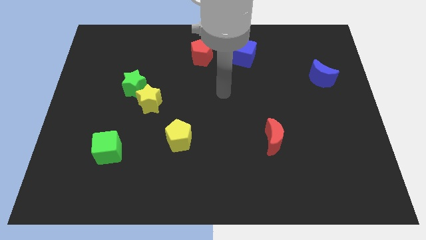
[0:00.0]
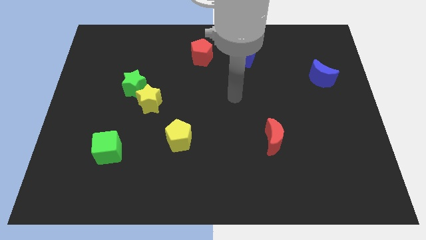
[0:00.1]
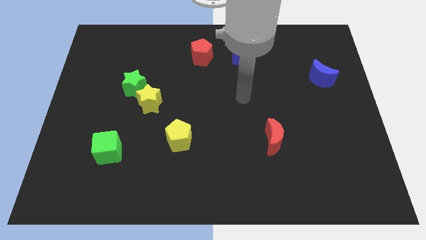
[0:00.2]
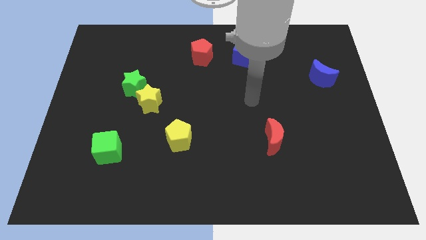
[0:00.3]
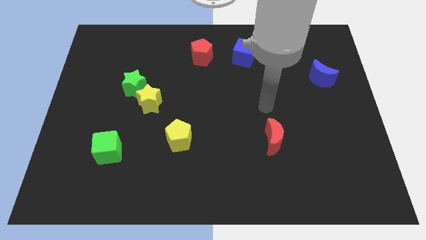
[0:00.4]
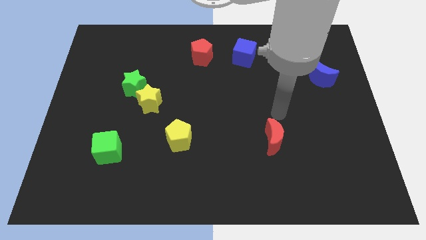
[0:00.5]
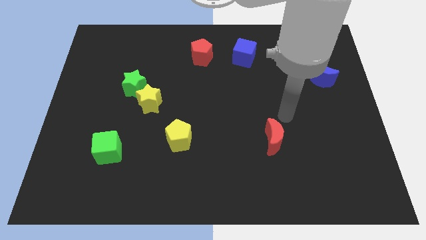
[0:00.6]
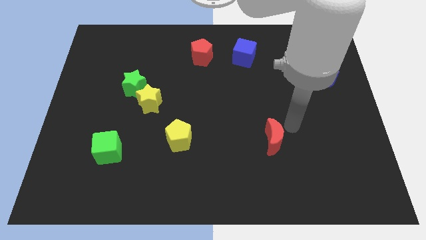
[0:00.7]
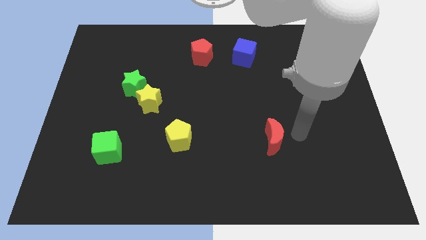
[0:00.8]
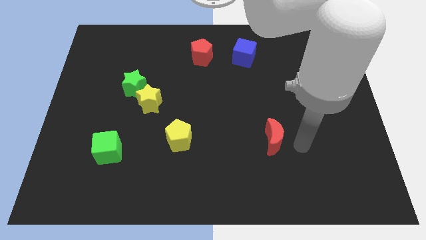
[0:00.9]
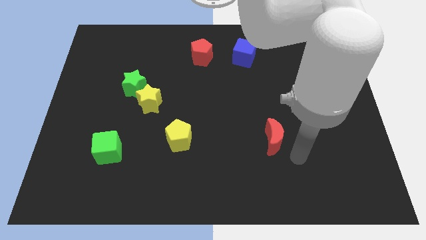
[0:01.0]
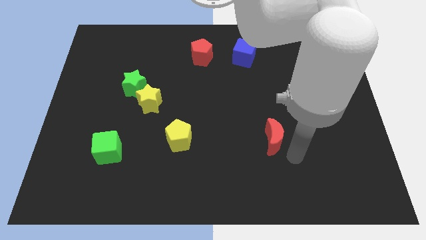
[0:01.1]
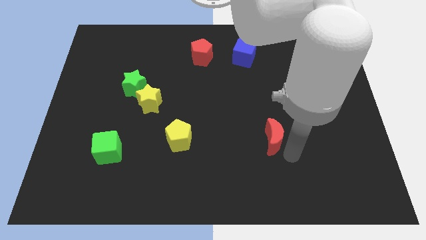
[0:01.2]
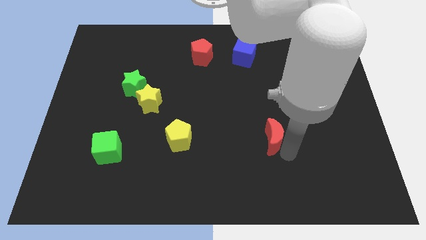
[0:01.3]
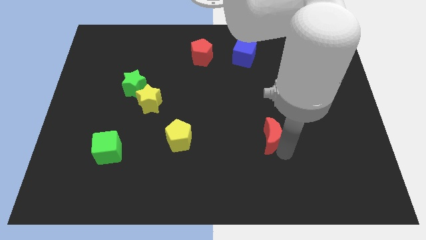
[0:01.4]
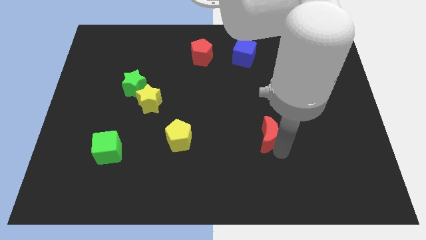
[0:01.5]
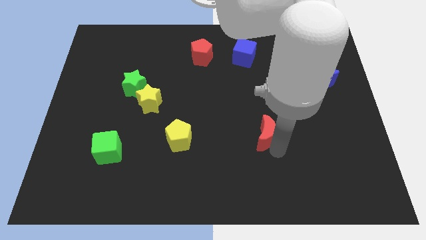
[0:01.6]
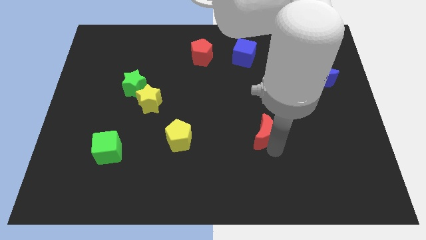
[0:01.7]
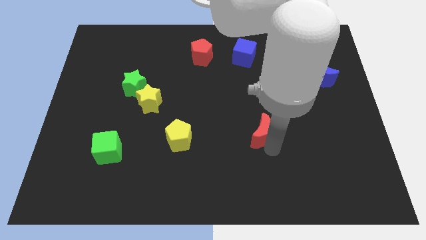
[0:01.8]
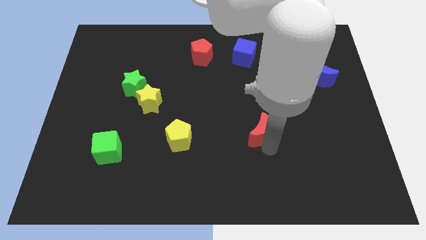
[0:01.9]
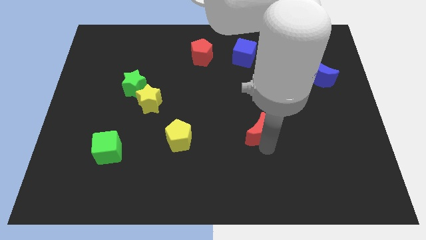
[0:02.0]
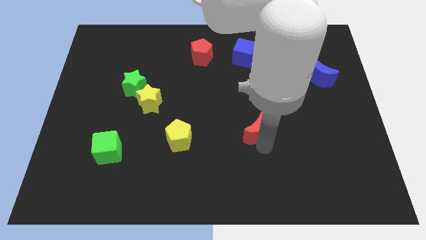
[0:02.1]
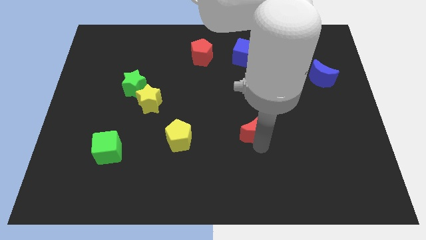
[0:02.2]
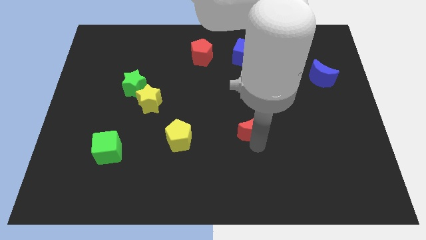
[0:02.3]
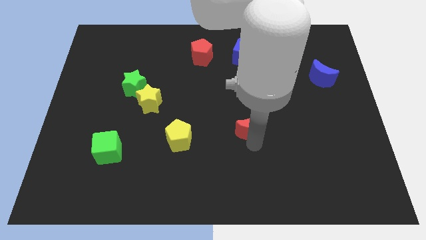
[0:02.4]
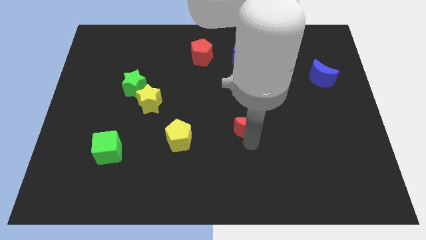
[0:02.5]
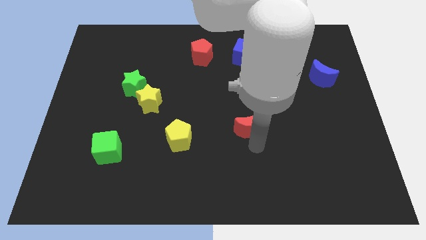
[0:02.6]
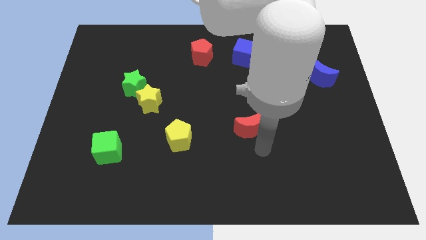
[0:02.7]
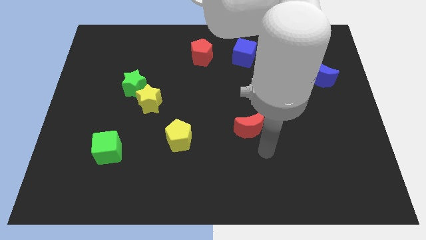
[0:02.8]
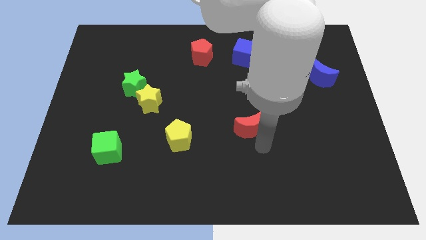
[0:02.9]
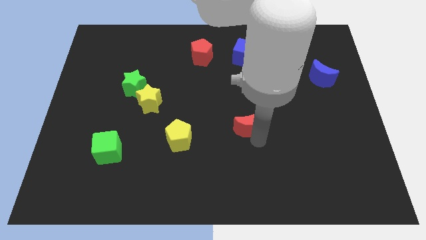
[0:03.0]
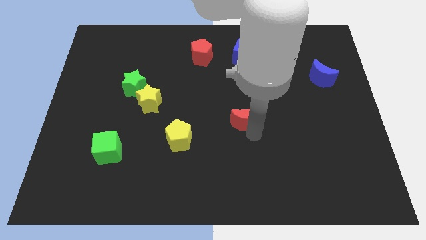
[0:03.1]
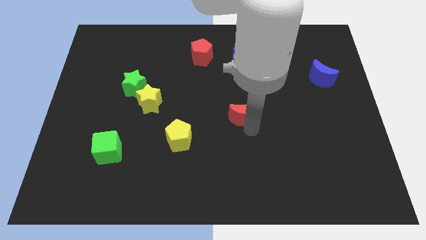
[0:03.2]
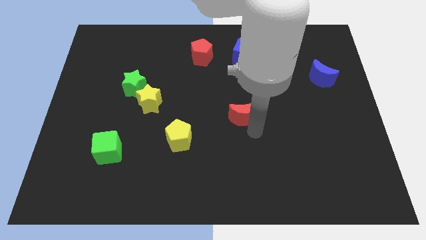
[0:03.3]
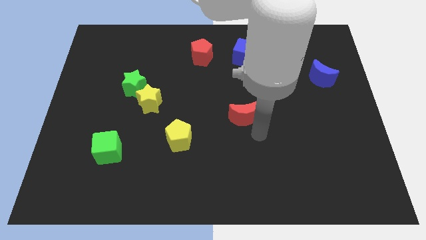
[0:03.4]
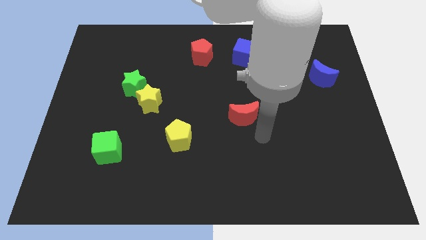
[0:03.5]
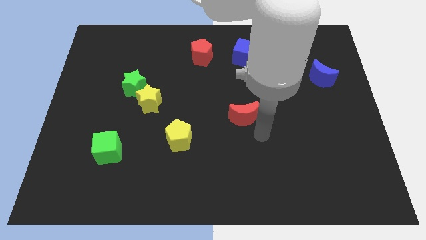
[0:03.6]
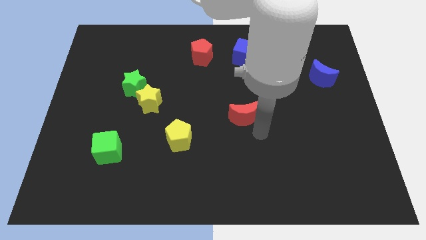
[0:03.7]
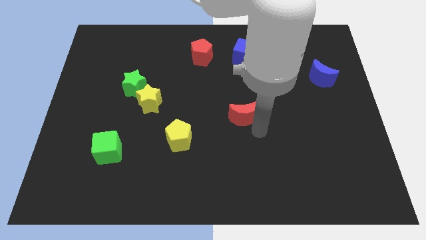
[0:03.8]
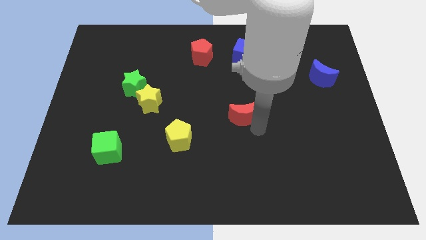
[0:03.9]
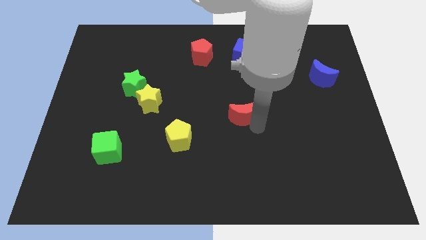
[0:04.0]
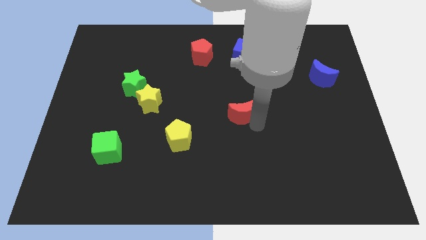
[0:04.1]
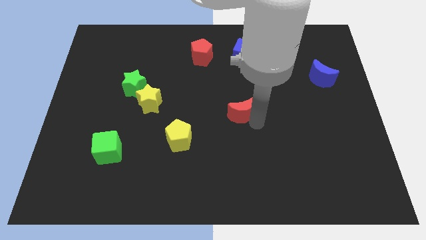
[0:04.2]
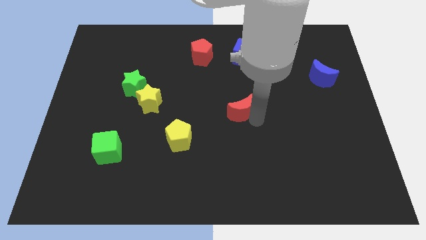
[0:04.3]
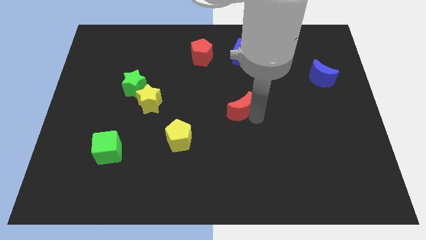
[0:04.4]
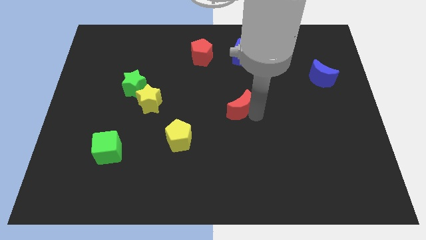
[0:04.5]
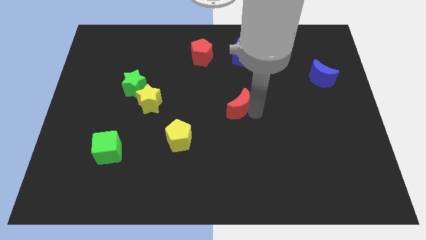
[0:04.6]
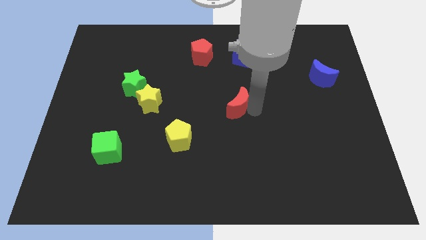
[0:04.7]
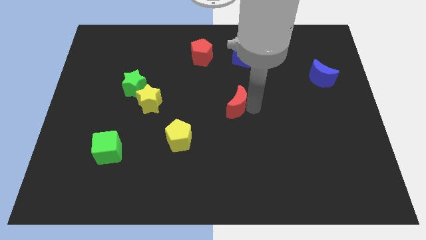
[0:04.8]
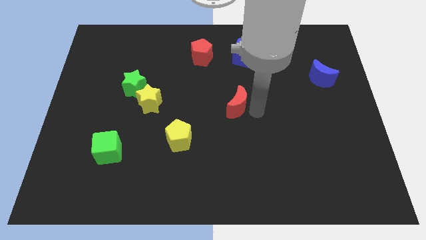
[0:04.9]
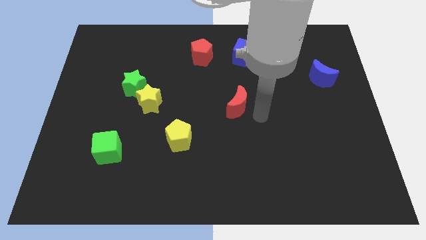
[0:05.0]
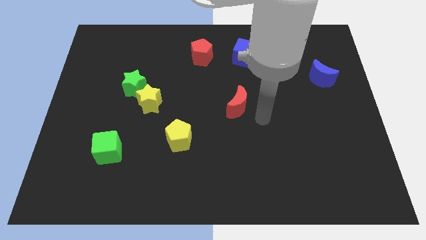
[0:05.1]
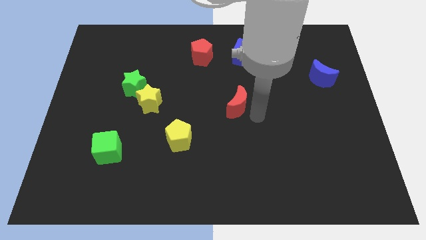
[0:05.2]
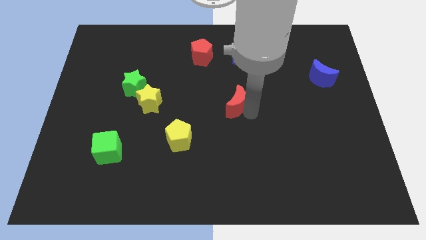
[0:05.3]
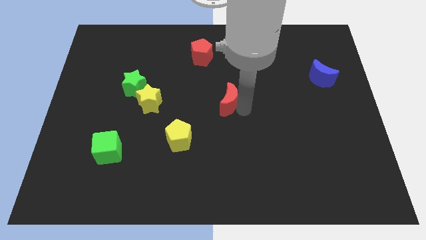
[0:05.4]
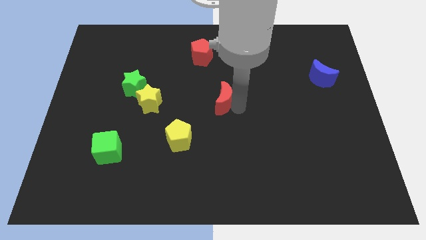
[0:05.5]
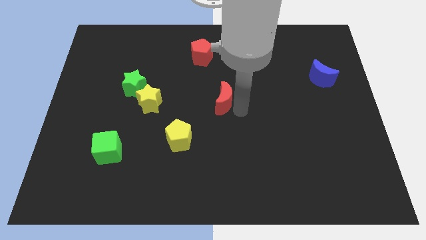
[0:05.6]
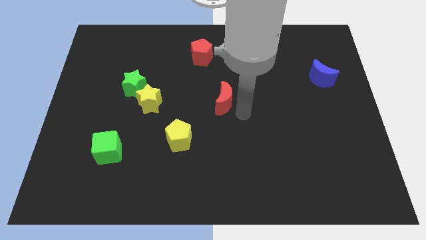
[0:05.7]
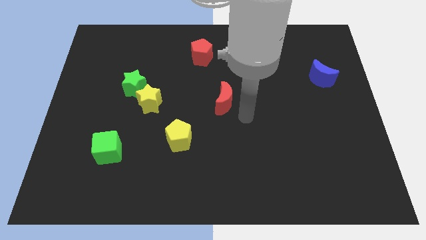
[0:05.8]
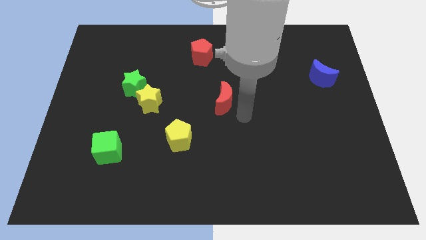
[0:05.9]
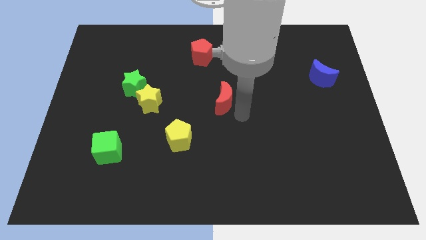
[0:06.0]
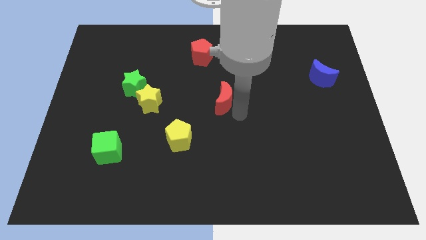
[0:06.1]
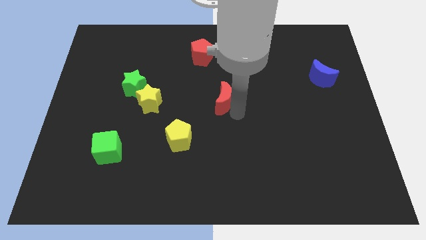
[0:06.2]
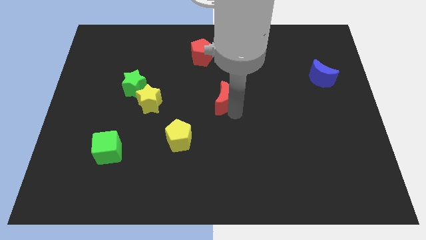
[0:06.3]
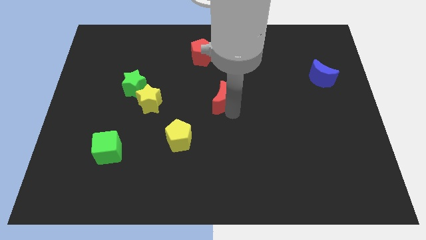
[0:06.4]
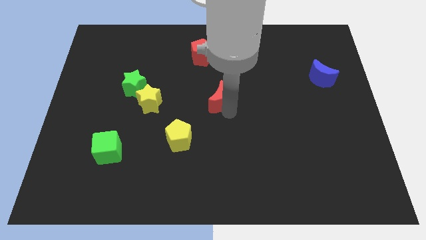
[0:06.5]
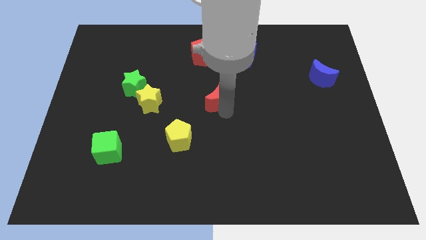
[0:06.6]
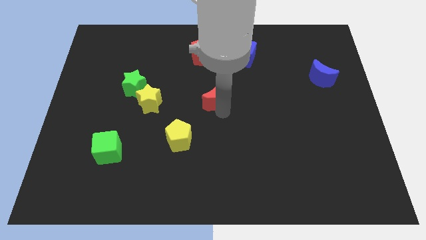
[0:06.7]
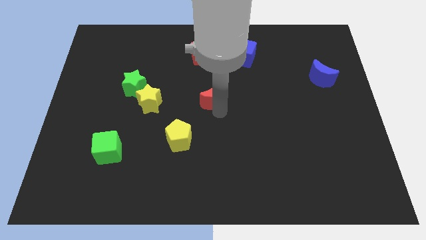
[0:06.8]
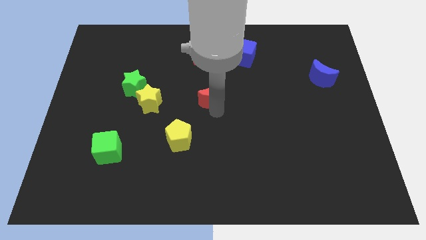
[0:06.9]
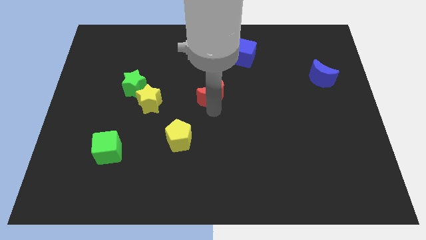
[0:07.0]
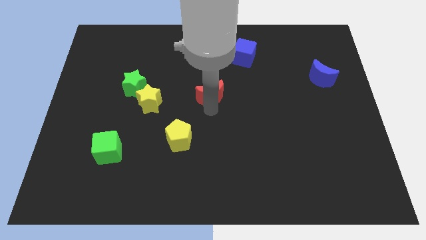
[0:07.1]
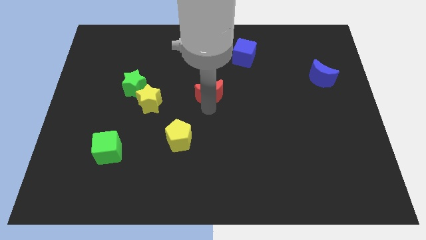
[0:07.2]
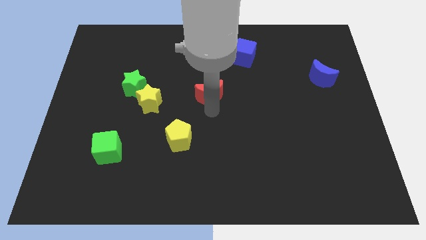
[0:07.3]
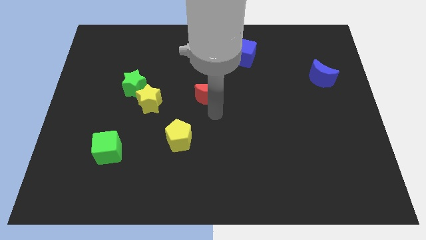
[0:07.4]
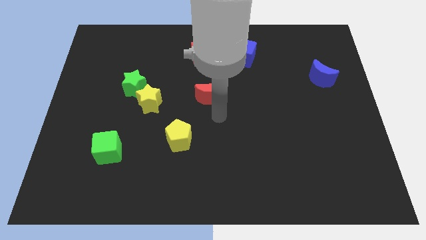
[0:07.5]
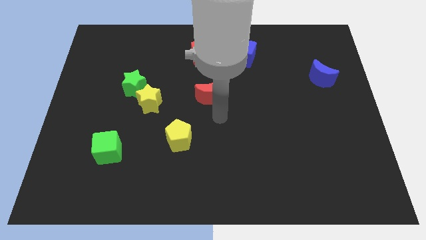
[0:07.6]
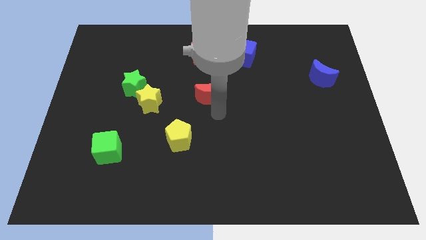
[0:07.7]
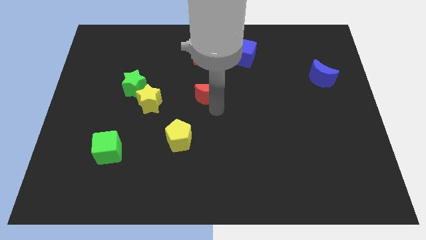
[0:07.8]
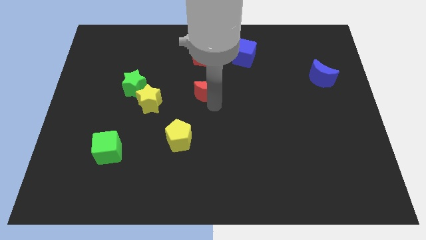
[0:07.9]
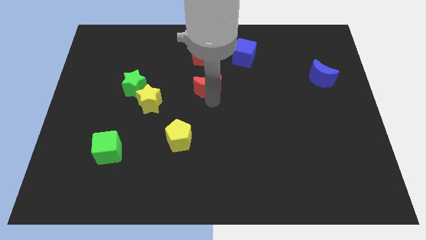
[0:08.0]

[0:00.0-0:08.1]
slide the red moon up and then left
